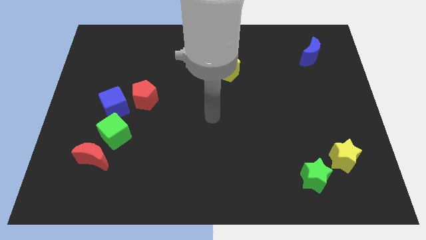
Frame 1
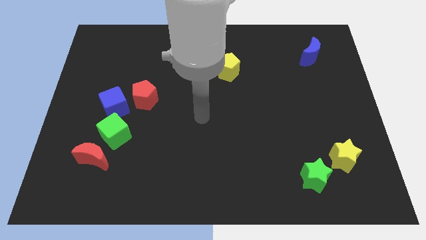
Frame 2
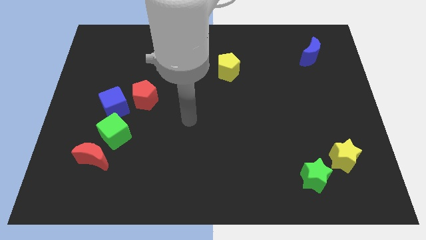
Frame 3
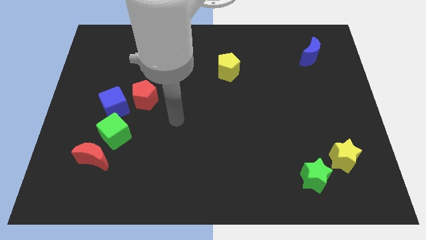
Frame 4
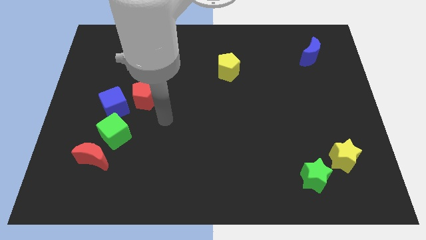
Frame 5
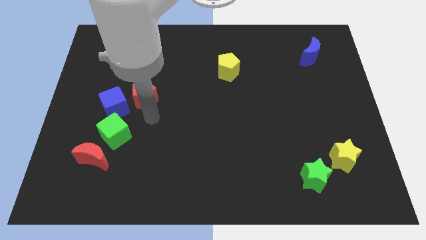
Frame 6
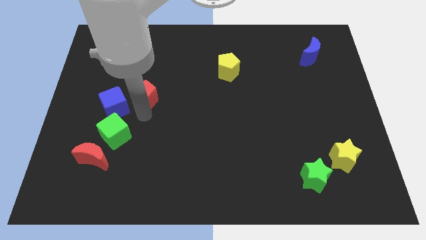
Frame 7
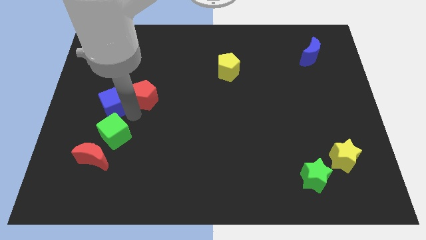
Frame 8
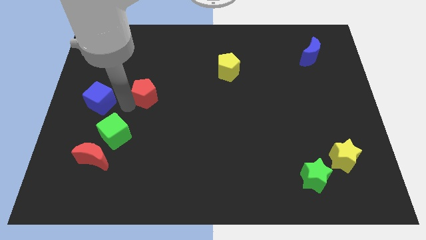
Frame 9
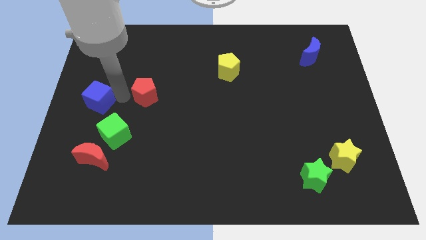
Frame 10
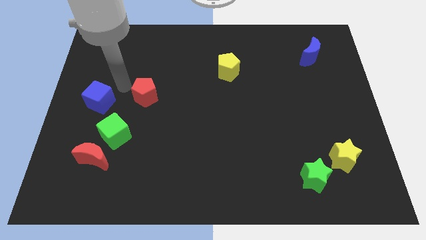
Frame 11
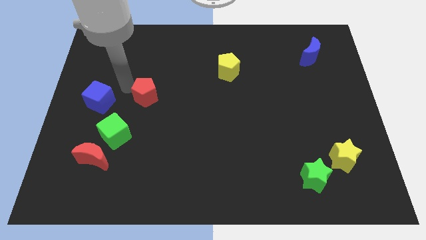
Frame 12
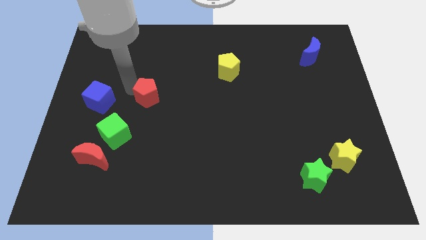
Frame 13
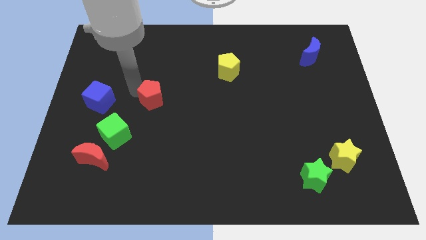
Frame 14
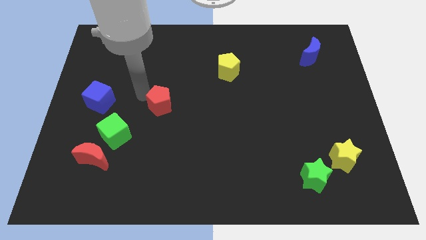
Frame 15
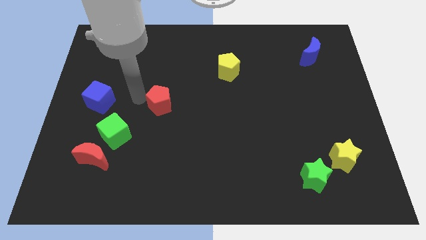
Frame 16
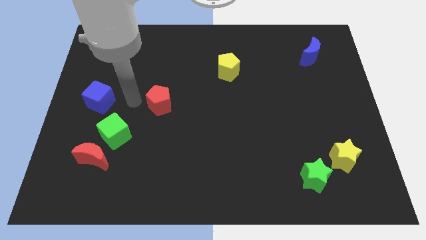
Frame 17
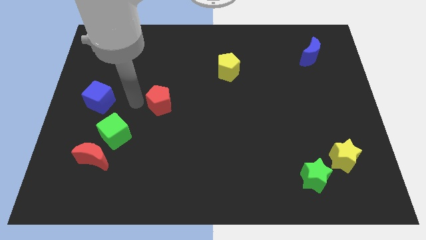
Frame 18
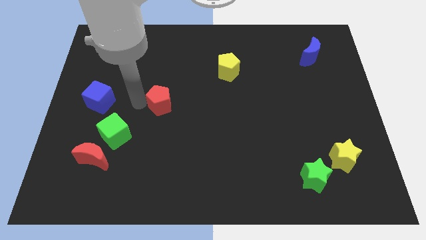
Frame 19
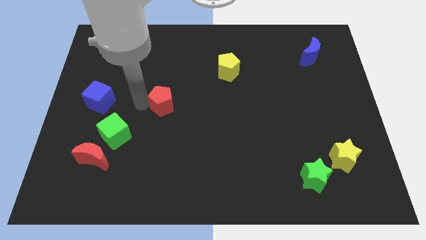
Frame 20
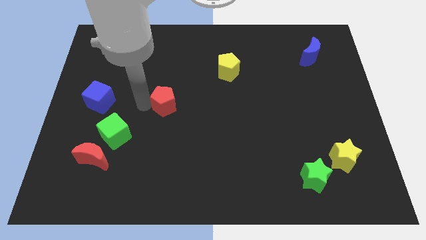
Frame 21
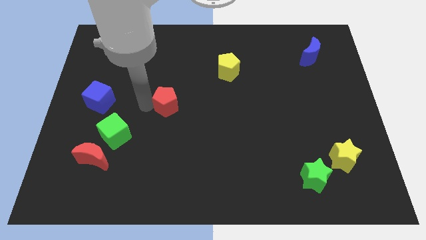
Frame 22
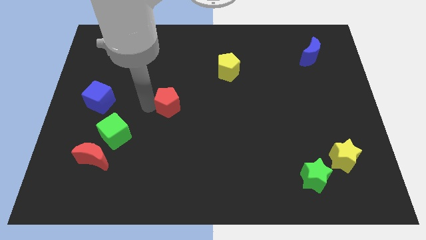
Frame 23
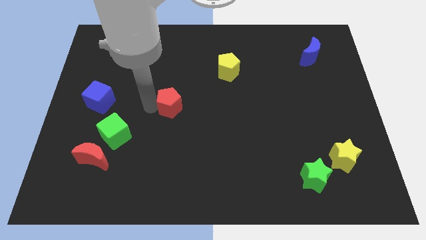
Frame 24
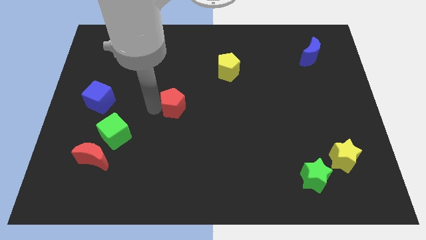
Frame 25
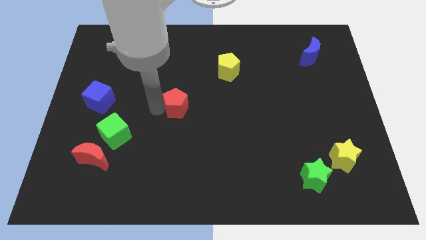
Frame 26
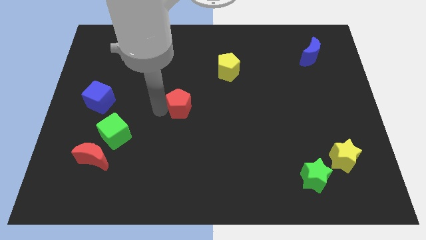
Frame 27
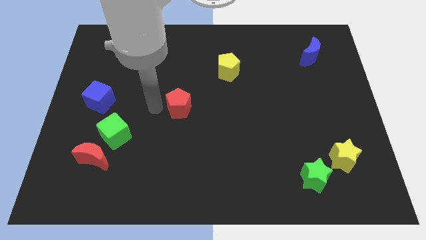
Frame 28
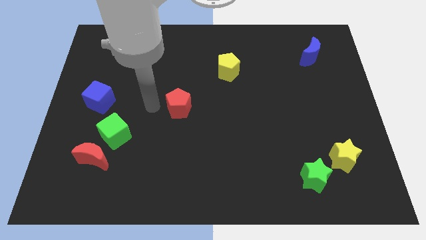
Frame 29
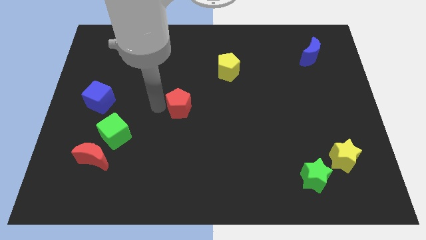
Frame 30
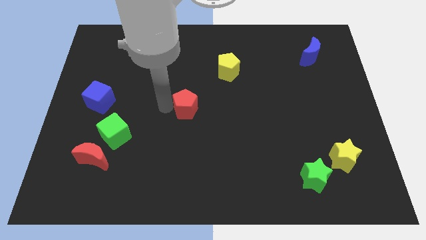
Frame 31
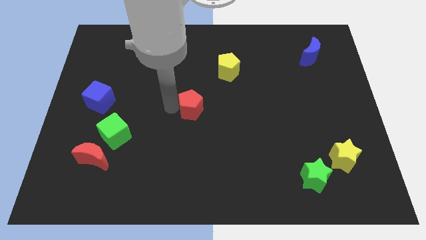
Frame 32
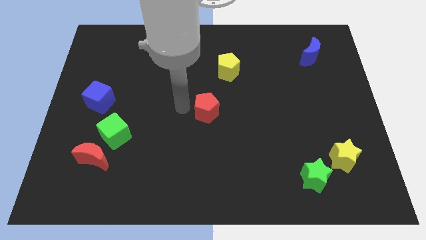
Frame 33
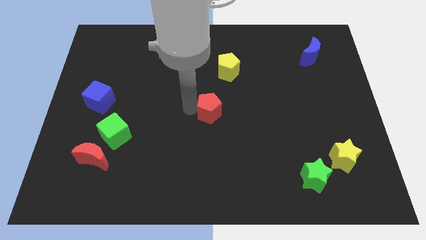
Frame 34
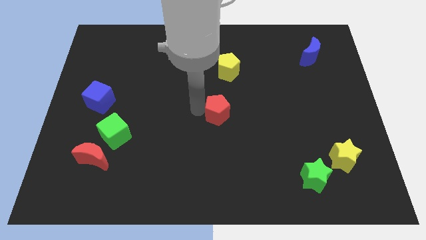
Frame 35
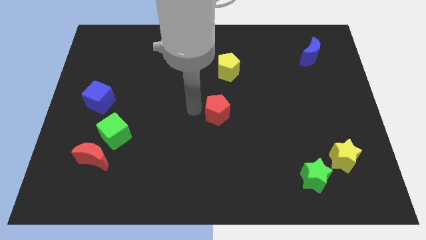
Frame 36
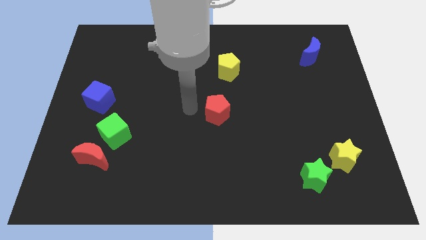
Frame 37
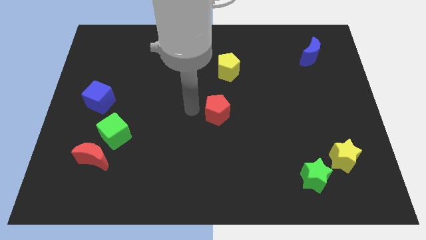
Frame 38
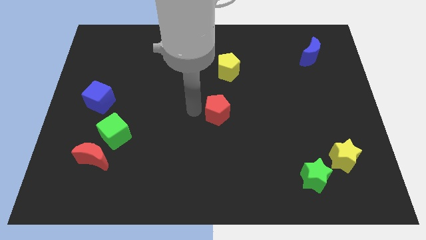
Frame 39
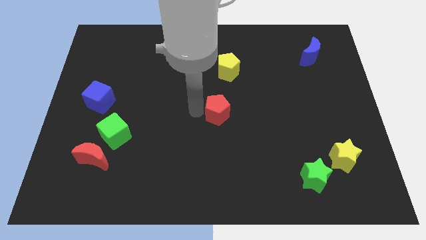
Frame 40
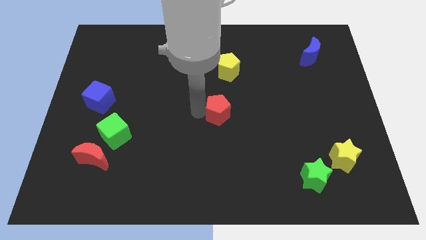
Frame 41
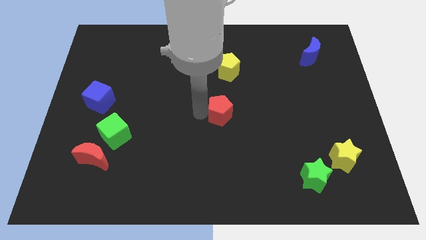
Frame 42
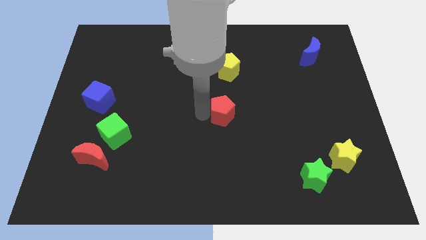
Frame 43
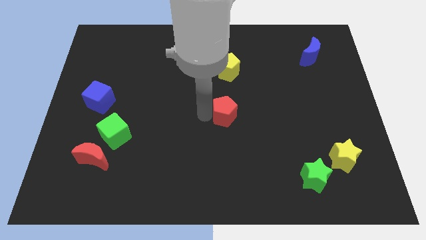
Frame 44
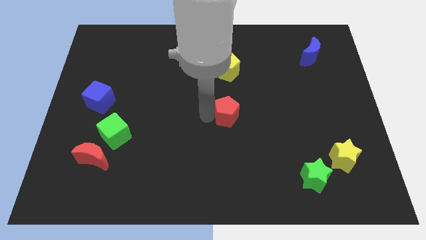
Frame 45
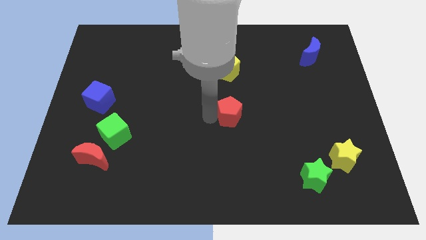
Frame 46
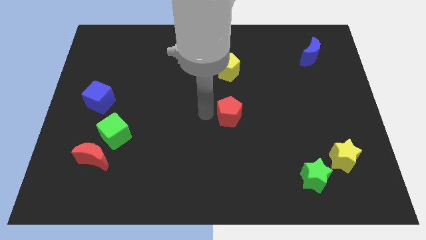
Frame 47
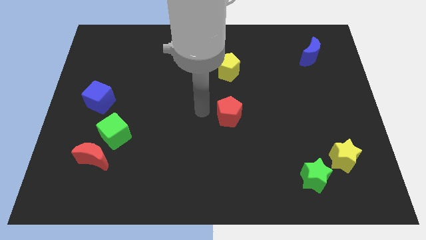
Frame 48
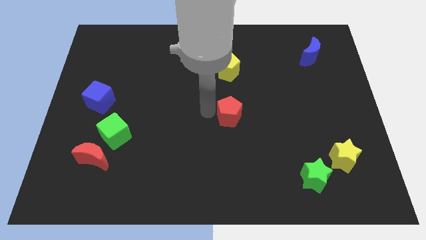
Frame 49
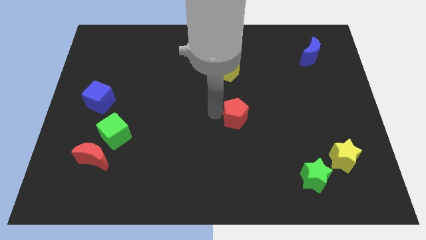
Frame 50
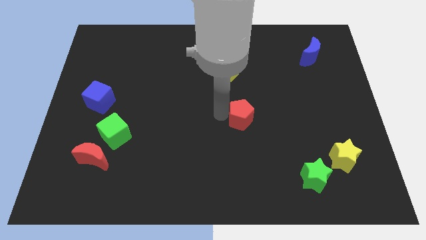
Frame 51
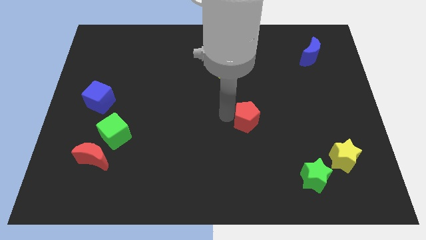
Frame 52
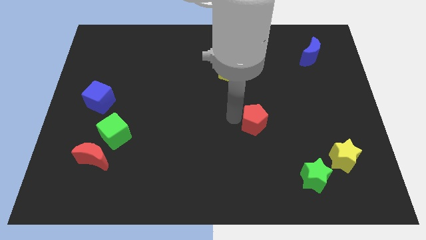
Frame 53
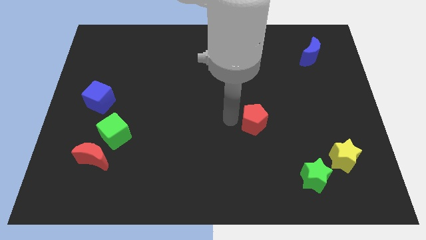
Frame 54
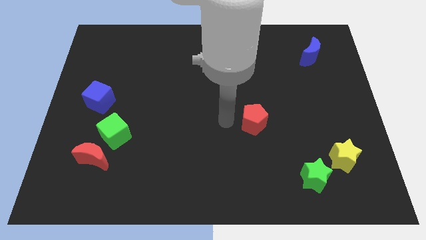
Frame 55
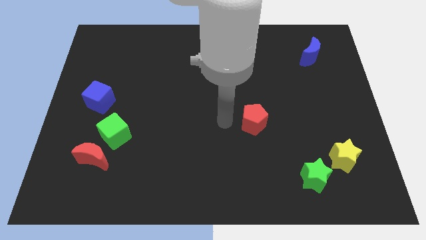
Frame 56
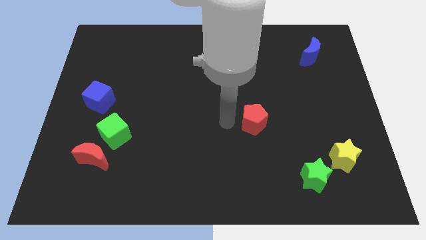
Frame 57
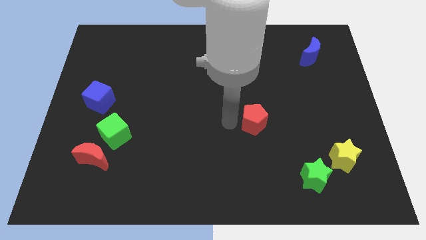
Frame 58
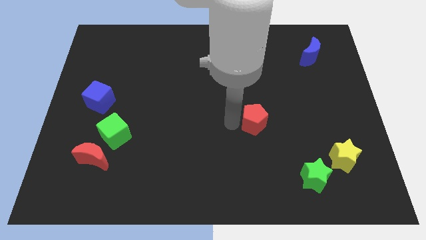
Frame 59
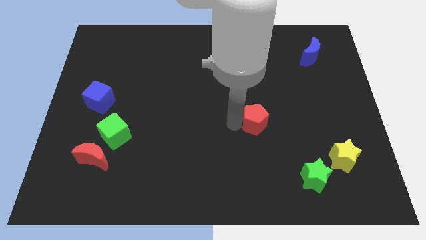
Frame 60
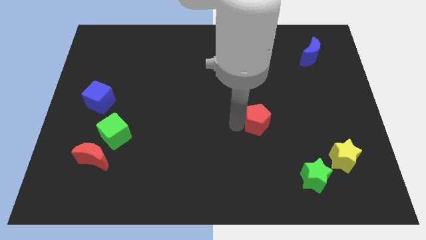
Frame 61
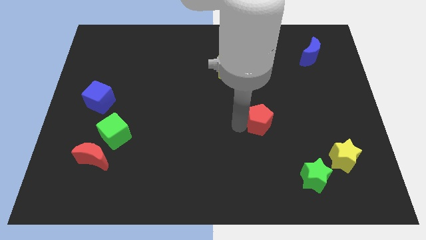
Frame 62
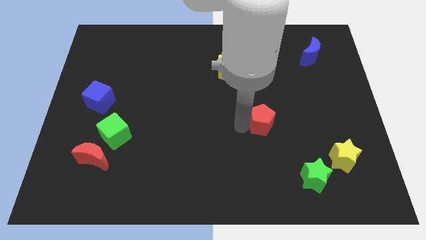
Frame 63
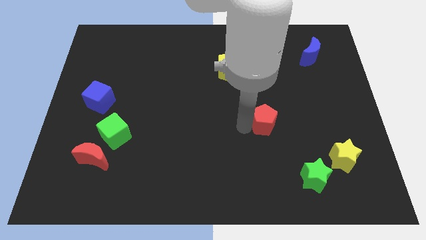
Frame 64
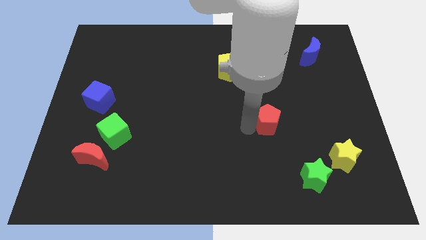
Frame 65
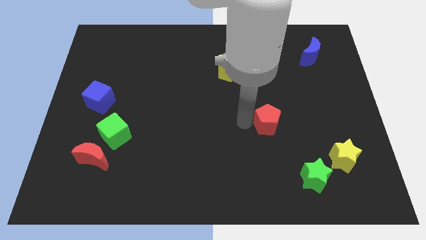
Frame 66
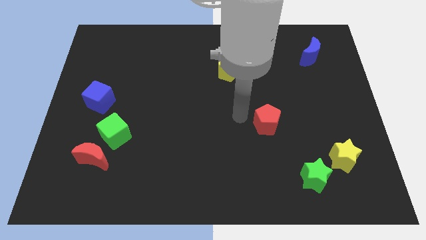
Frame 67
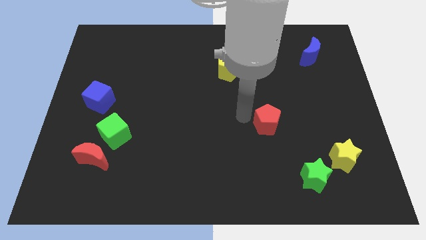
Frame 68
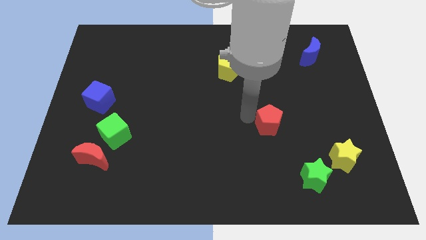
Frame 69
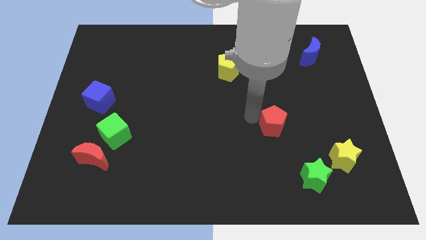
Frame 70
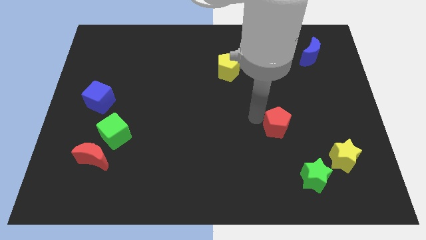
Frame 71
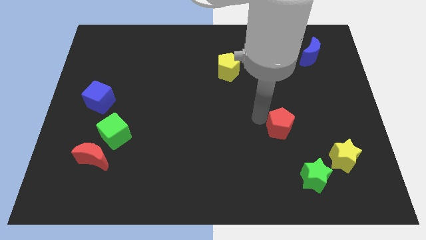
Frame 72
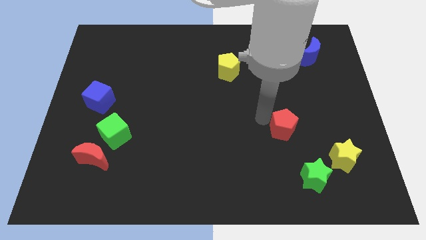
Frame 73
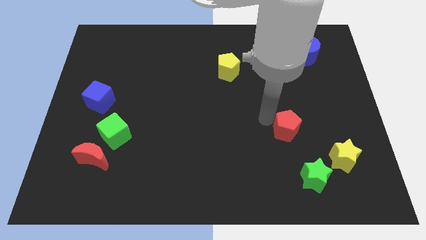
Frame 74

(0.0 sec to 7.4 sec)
move the red pentagon to the top side of the green star
